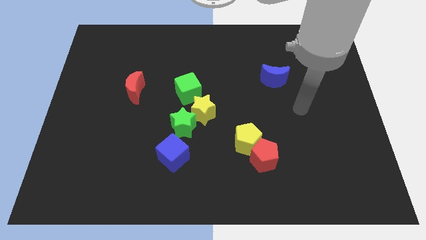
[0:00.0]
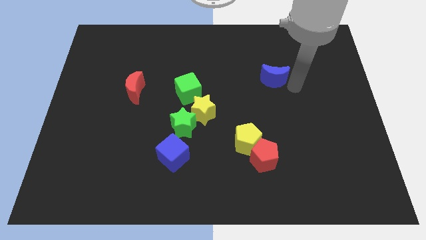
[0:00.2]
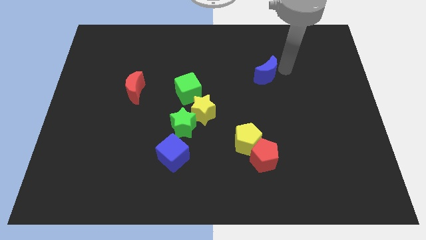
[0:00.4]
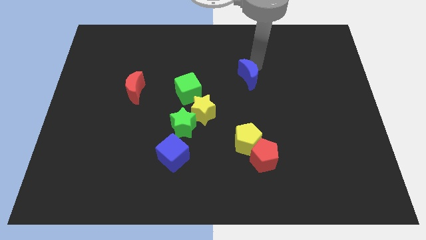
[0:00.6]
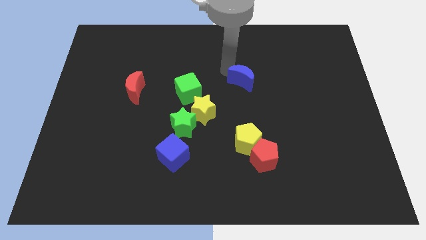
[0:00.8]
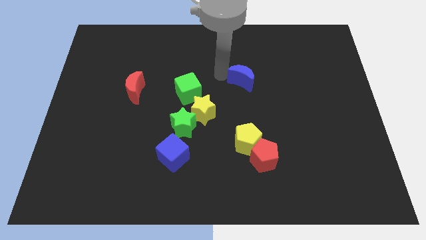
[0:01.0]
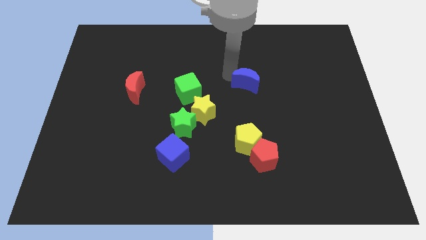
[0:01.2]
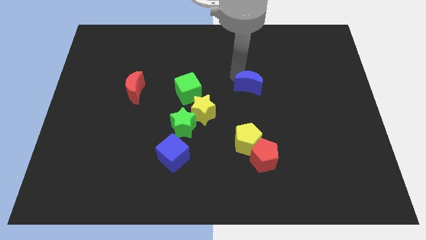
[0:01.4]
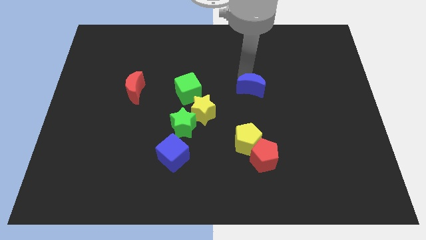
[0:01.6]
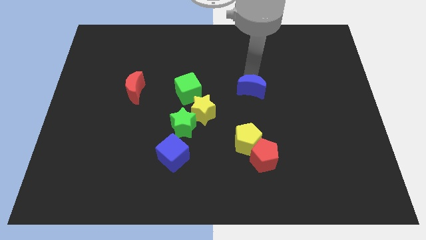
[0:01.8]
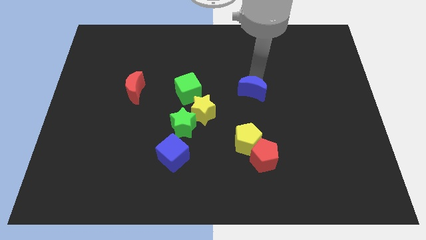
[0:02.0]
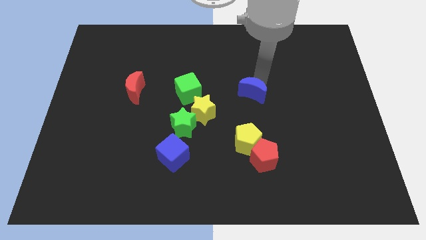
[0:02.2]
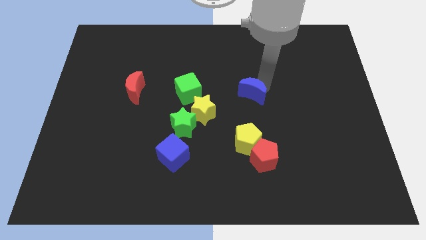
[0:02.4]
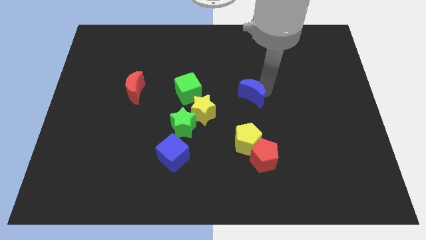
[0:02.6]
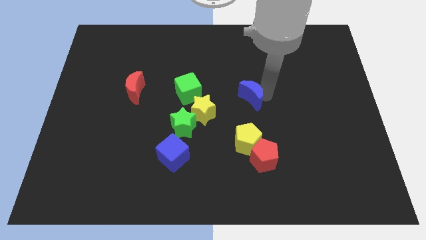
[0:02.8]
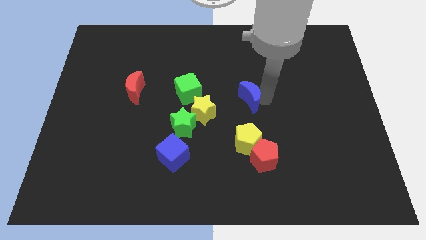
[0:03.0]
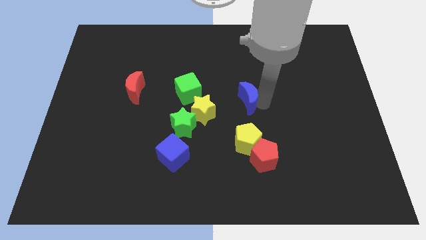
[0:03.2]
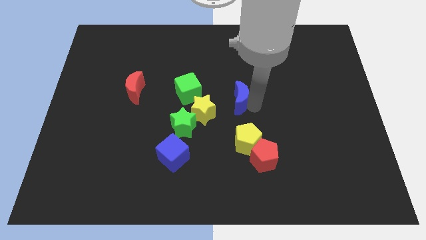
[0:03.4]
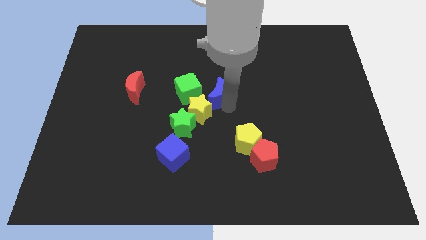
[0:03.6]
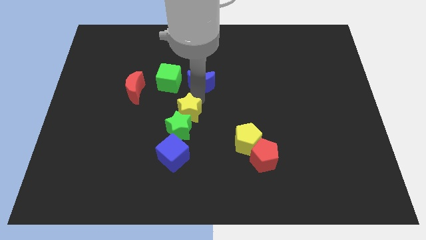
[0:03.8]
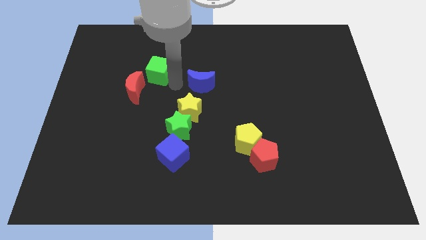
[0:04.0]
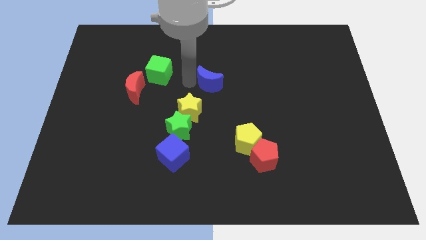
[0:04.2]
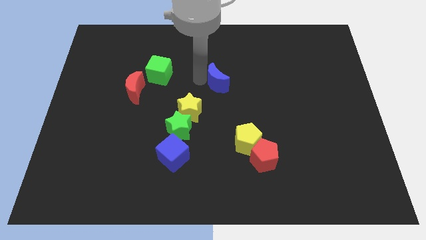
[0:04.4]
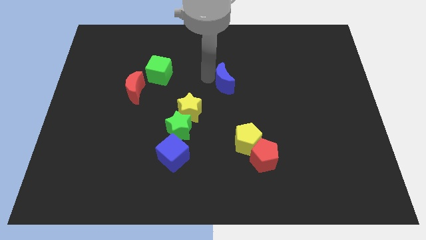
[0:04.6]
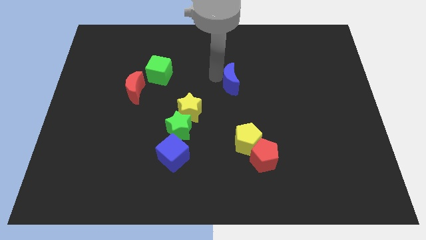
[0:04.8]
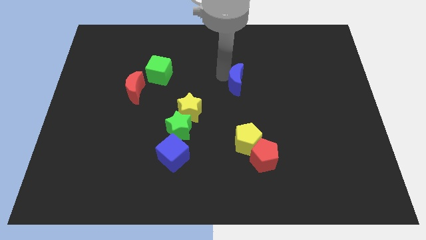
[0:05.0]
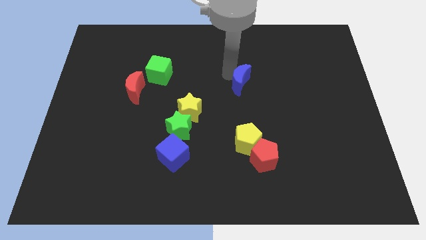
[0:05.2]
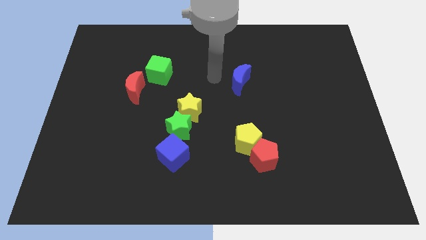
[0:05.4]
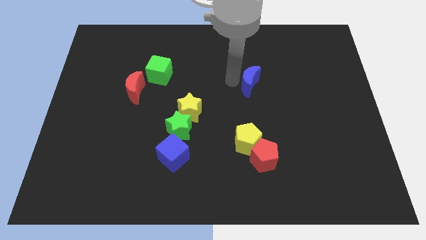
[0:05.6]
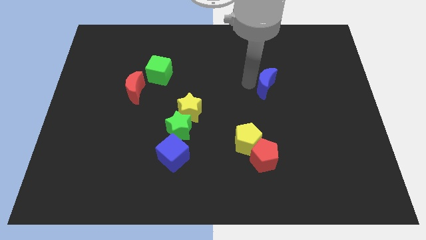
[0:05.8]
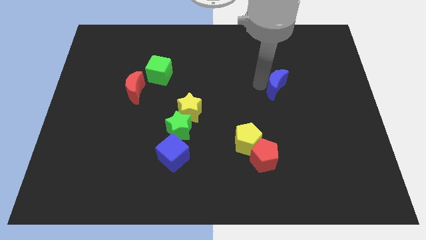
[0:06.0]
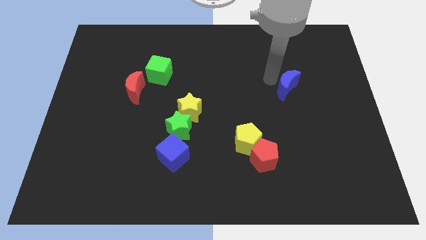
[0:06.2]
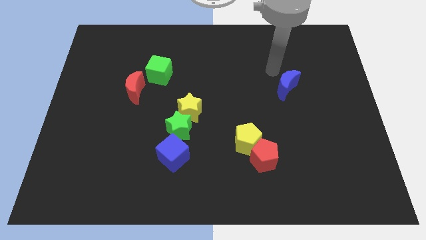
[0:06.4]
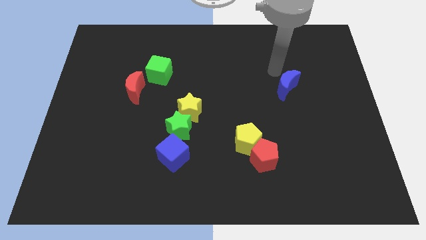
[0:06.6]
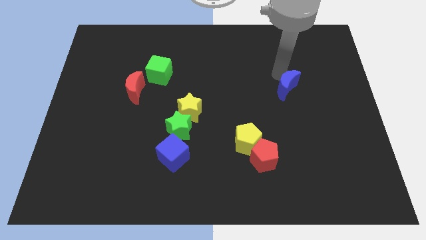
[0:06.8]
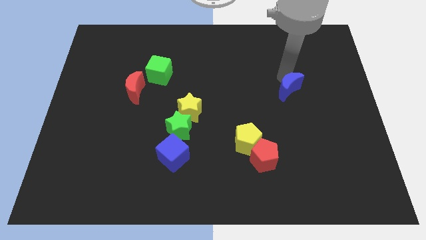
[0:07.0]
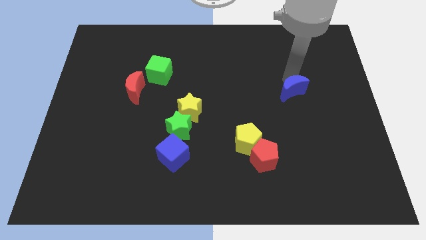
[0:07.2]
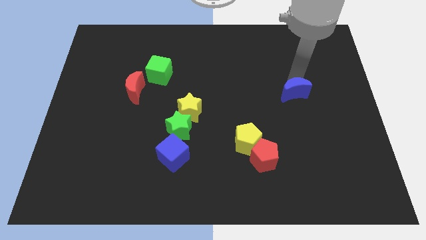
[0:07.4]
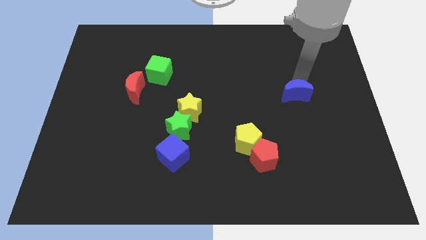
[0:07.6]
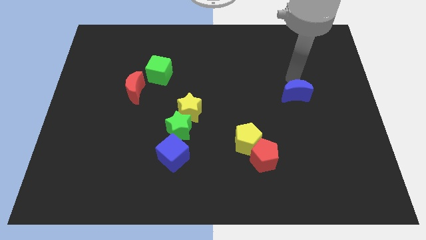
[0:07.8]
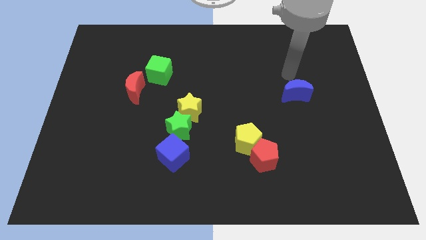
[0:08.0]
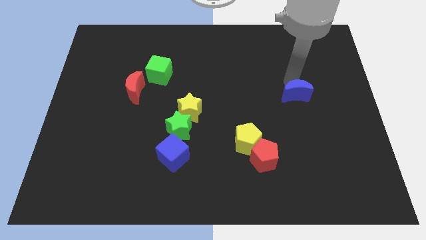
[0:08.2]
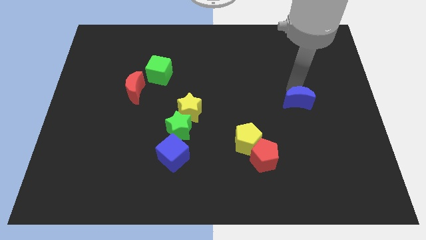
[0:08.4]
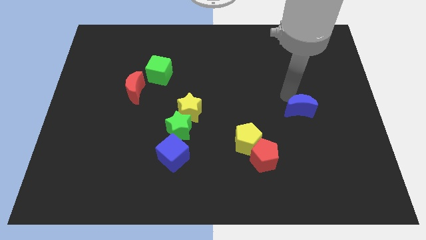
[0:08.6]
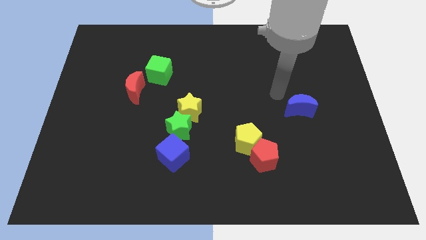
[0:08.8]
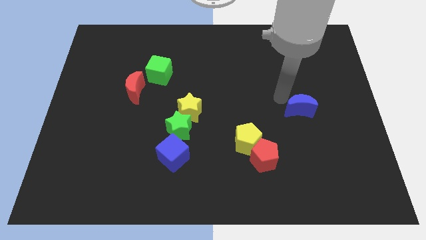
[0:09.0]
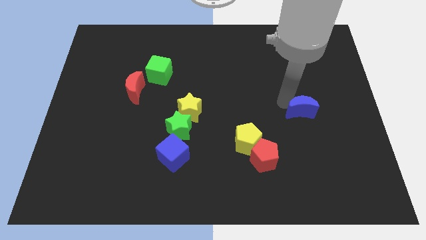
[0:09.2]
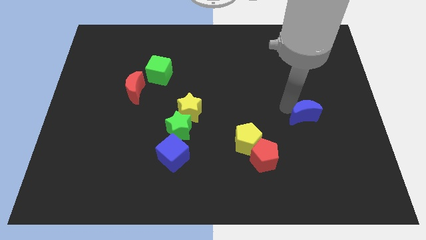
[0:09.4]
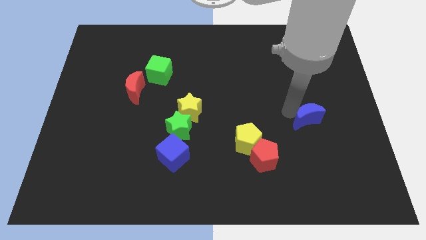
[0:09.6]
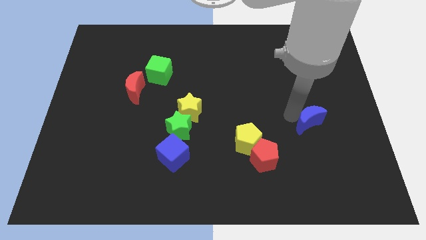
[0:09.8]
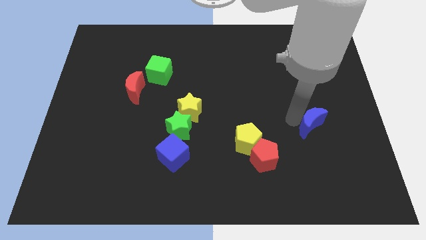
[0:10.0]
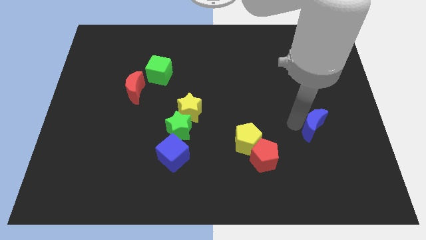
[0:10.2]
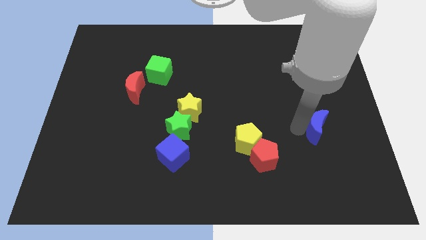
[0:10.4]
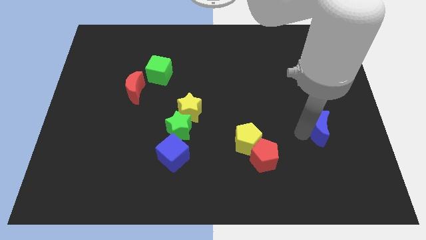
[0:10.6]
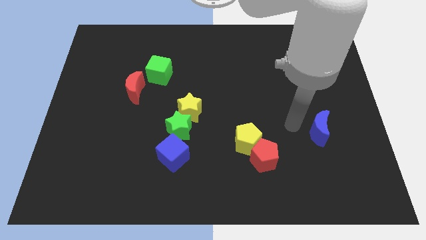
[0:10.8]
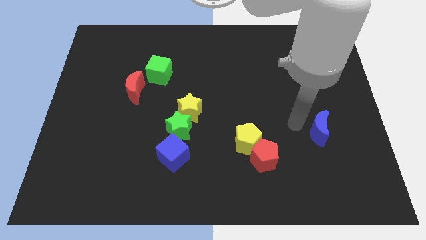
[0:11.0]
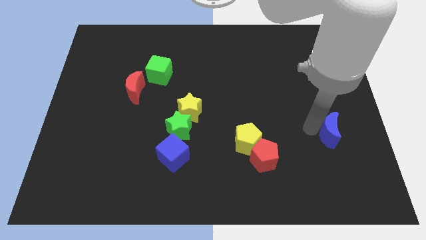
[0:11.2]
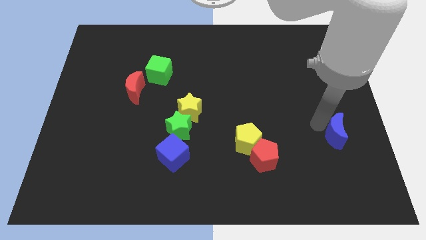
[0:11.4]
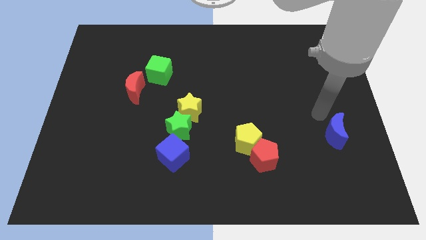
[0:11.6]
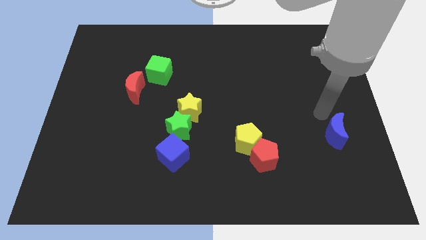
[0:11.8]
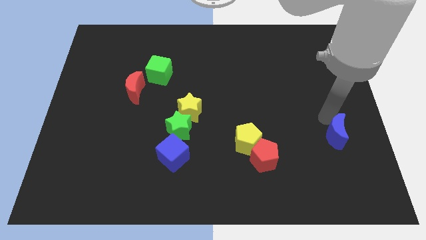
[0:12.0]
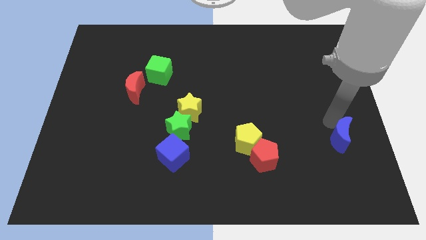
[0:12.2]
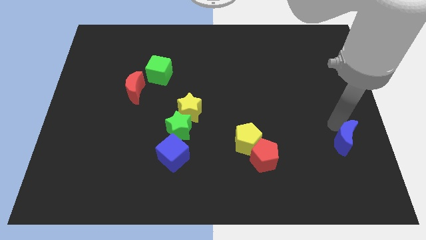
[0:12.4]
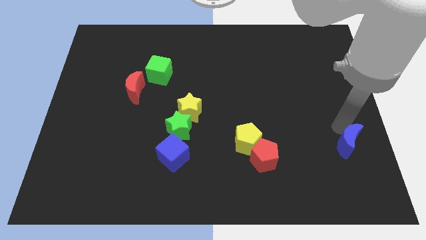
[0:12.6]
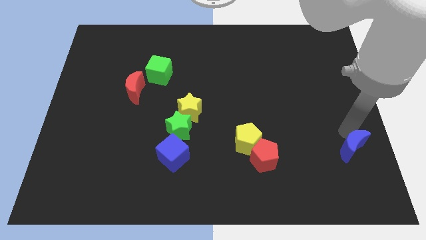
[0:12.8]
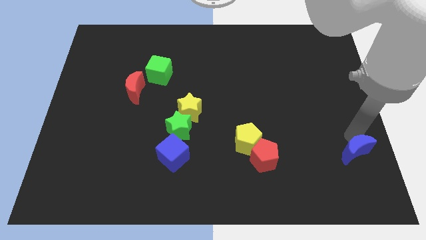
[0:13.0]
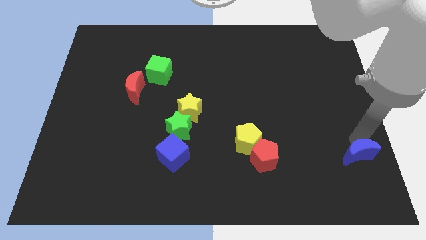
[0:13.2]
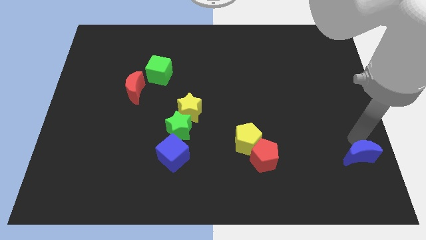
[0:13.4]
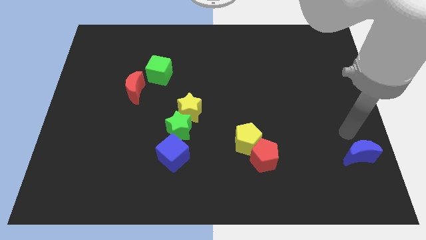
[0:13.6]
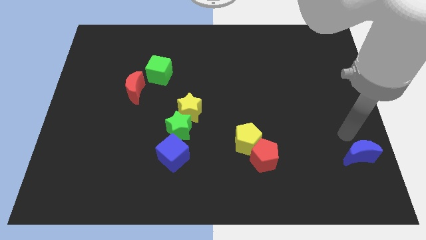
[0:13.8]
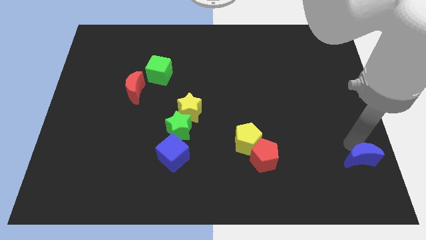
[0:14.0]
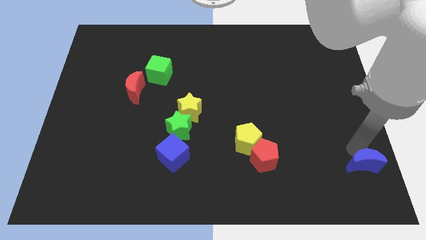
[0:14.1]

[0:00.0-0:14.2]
slide the blue moon to the bottom right corner
